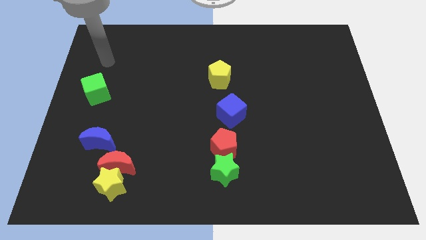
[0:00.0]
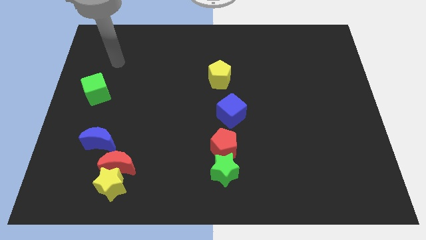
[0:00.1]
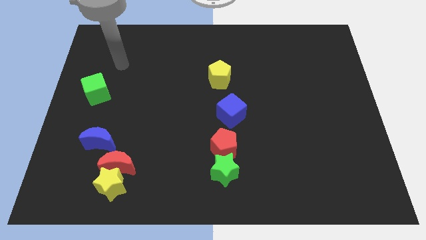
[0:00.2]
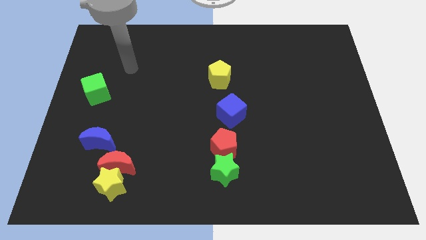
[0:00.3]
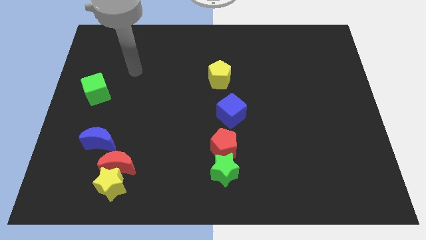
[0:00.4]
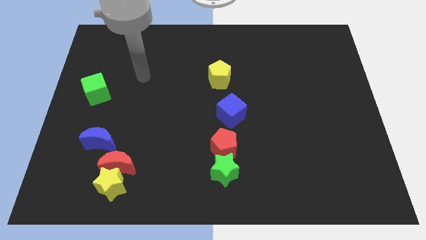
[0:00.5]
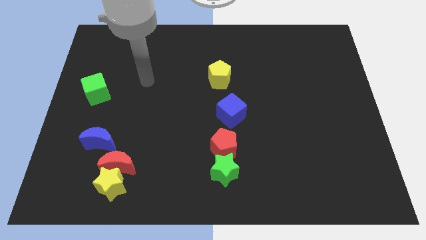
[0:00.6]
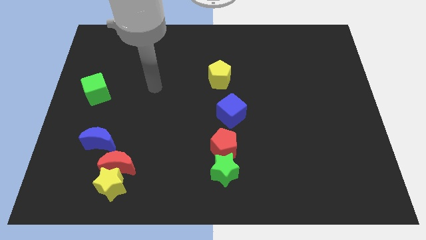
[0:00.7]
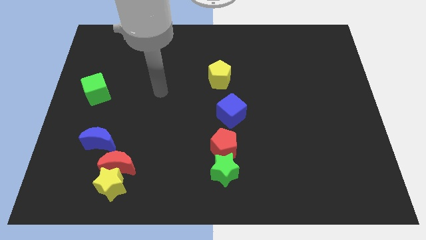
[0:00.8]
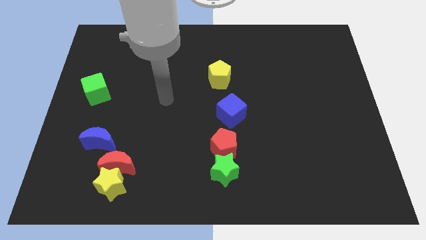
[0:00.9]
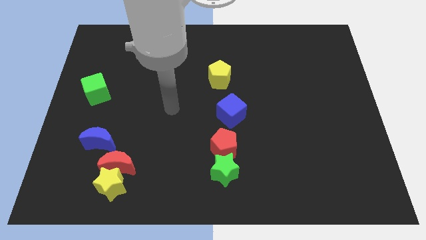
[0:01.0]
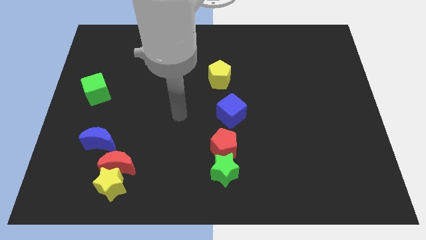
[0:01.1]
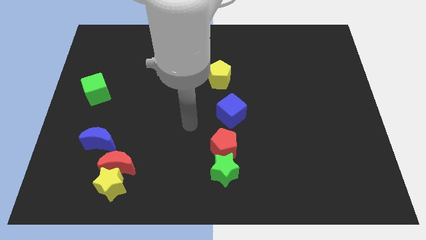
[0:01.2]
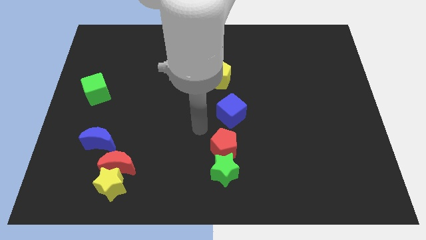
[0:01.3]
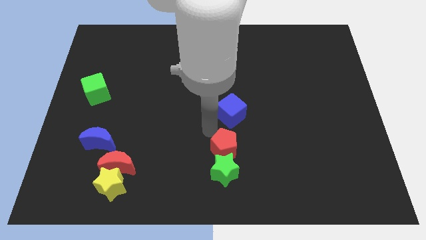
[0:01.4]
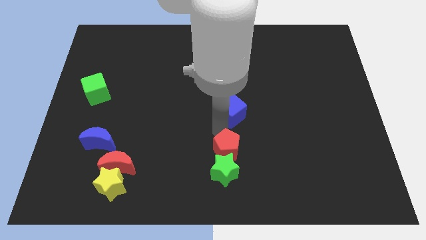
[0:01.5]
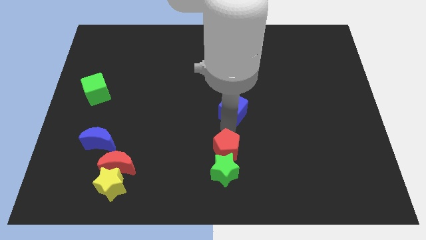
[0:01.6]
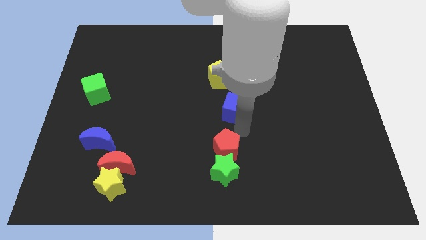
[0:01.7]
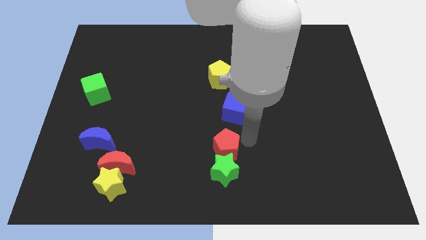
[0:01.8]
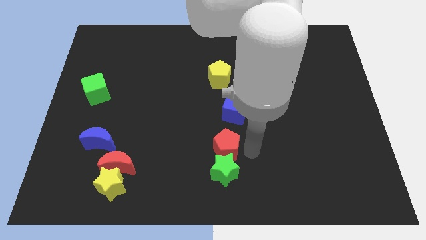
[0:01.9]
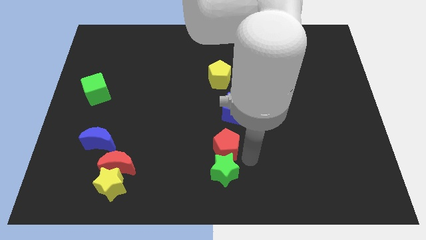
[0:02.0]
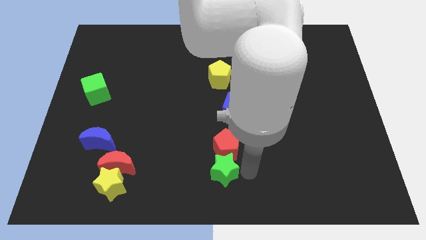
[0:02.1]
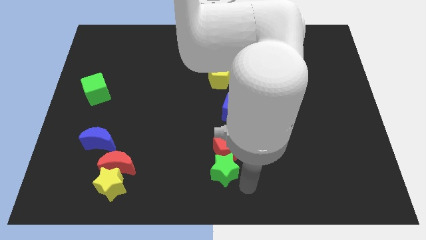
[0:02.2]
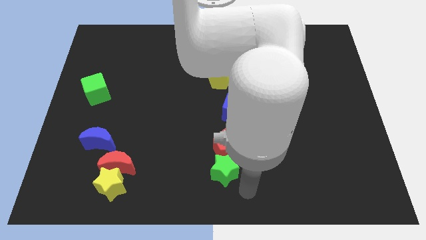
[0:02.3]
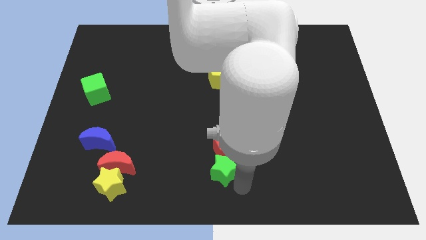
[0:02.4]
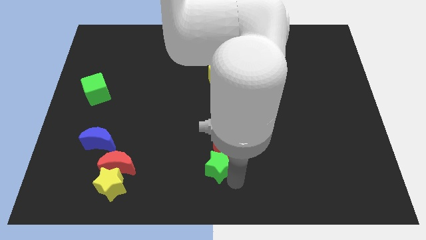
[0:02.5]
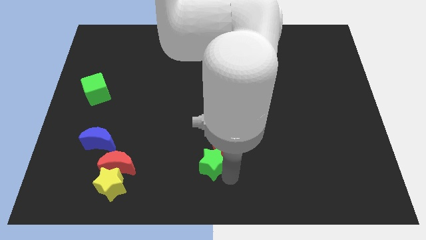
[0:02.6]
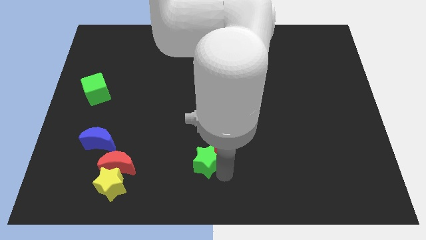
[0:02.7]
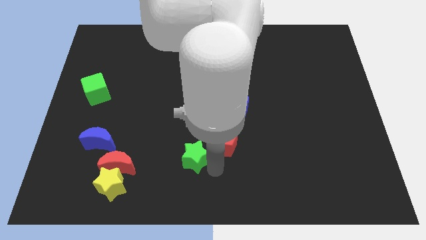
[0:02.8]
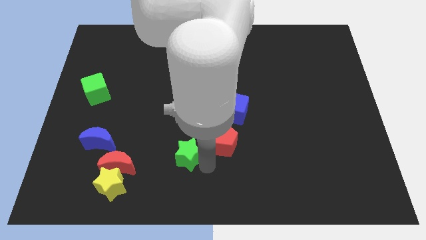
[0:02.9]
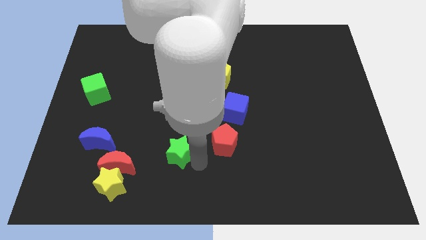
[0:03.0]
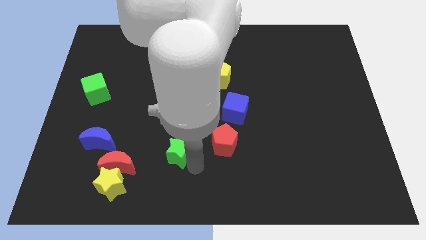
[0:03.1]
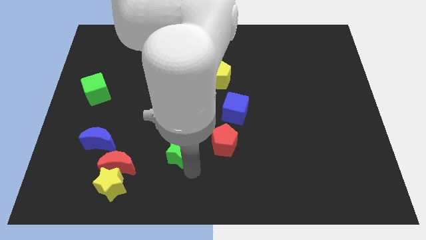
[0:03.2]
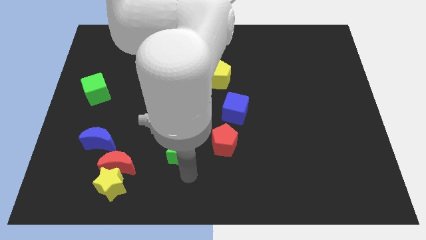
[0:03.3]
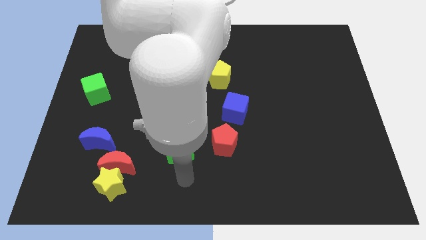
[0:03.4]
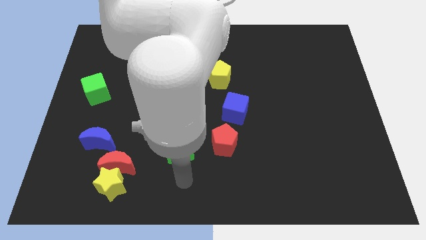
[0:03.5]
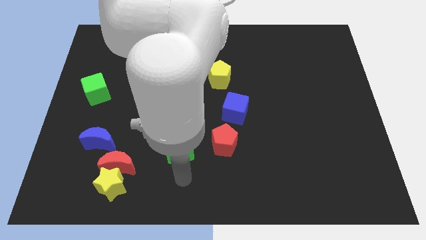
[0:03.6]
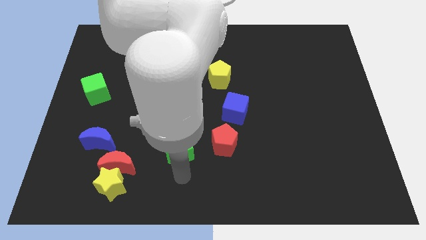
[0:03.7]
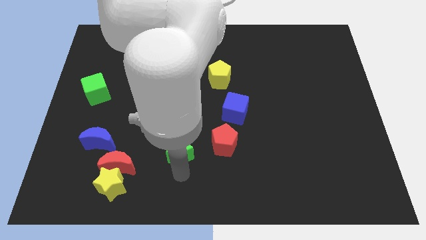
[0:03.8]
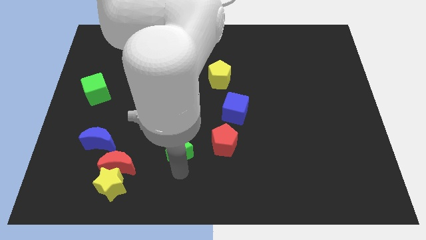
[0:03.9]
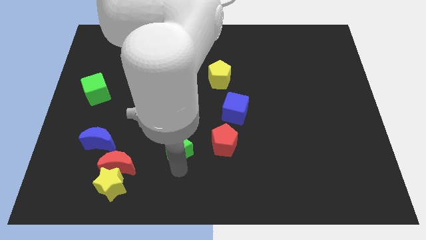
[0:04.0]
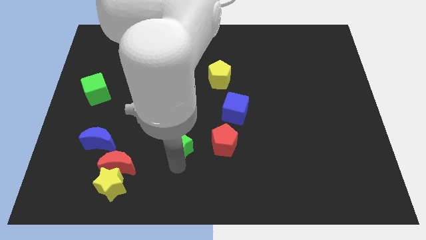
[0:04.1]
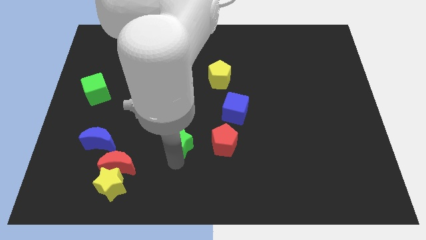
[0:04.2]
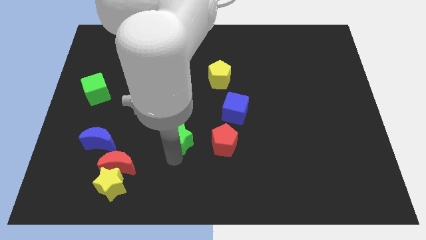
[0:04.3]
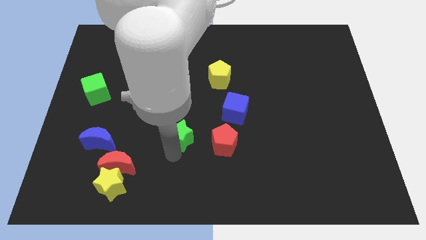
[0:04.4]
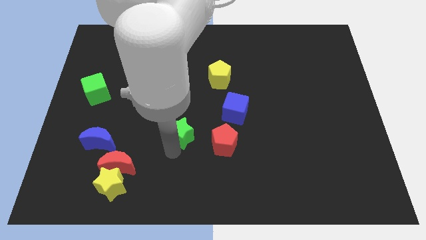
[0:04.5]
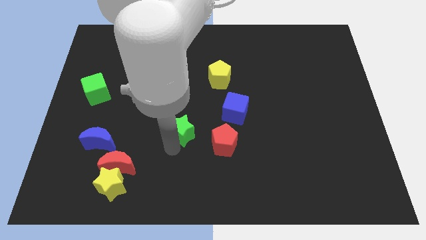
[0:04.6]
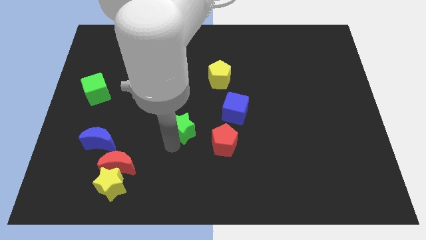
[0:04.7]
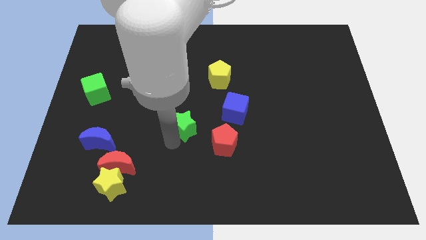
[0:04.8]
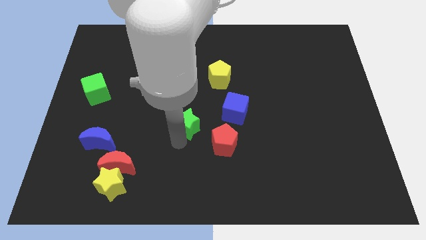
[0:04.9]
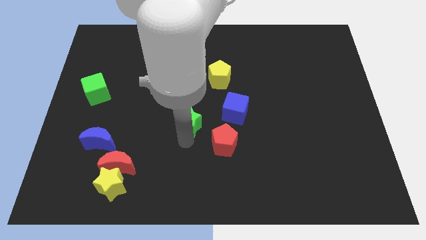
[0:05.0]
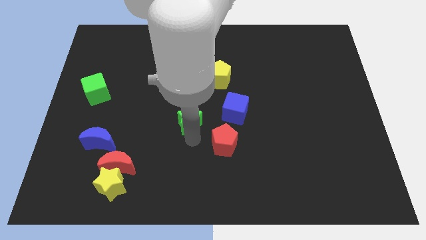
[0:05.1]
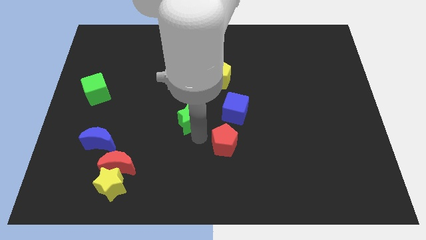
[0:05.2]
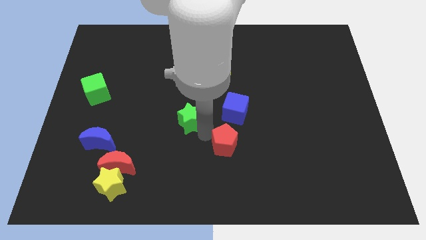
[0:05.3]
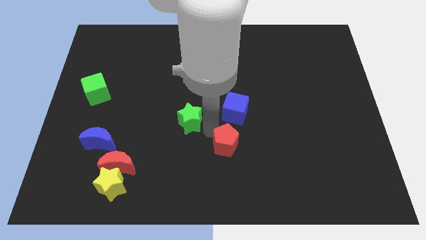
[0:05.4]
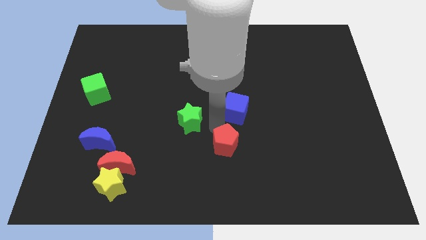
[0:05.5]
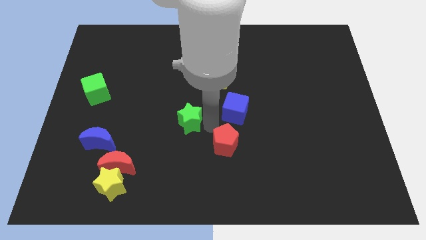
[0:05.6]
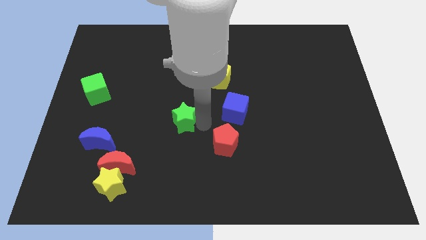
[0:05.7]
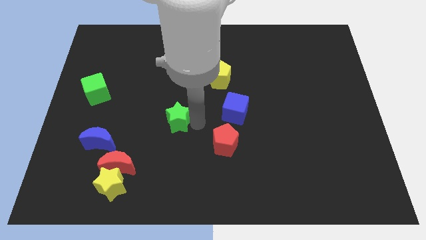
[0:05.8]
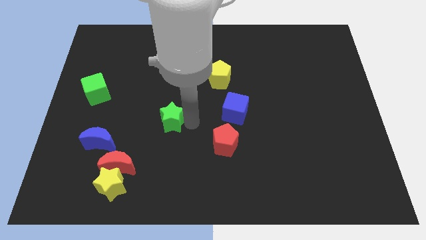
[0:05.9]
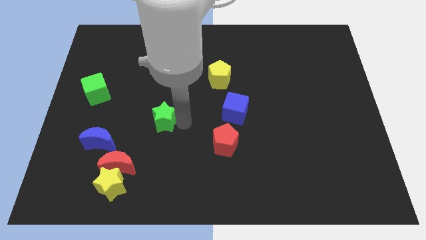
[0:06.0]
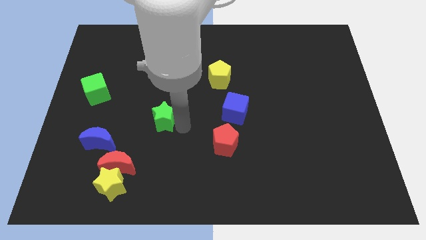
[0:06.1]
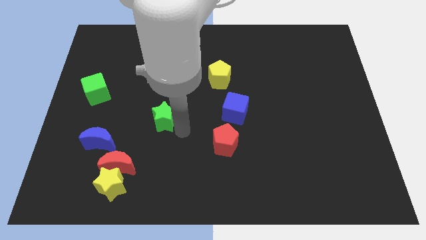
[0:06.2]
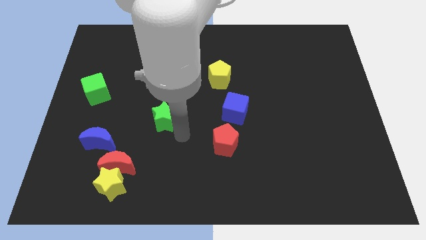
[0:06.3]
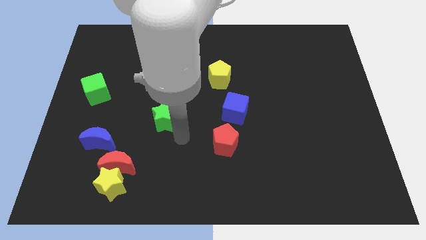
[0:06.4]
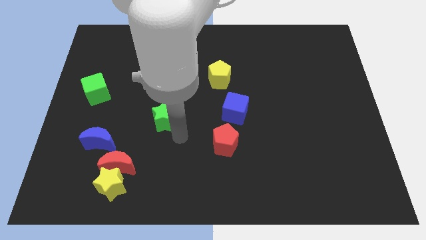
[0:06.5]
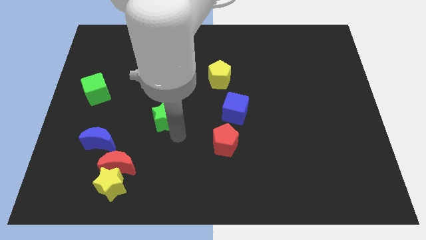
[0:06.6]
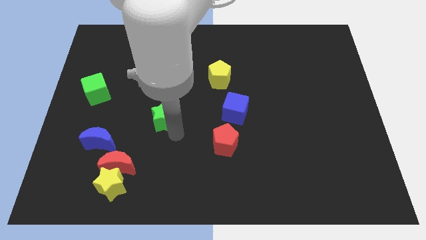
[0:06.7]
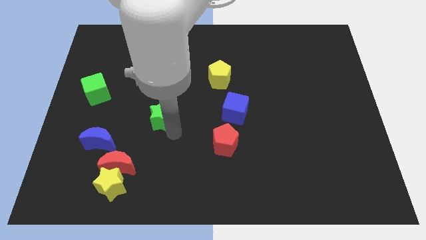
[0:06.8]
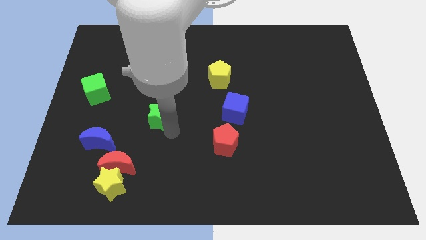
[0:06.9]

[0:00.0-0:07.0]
slide the green star up and then left

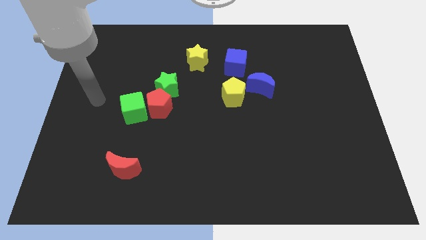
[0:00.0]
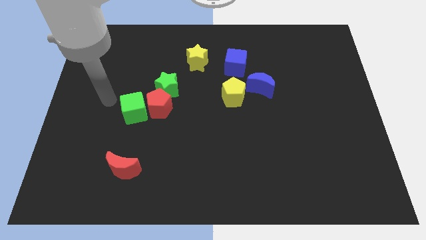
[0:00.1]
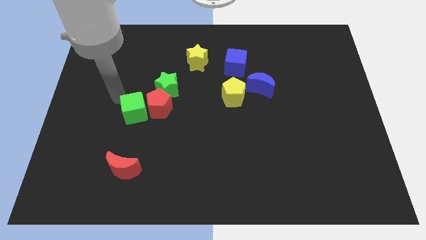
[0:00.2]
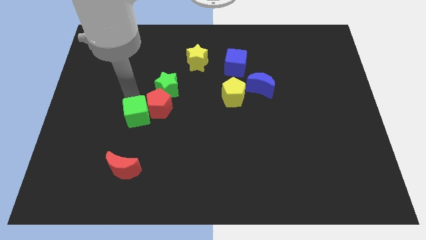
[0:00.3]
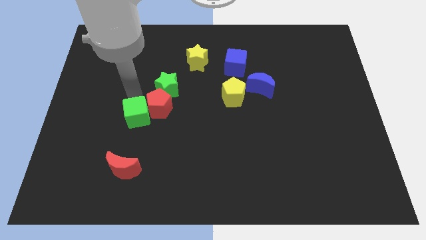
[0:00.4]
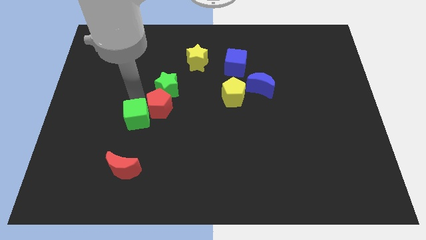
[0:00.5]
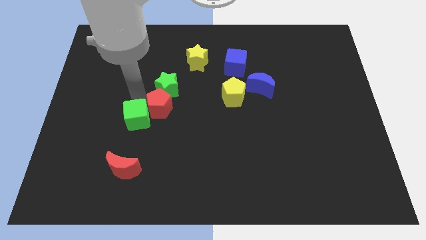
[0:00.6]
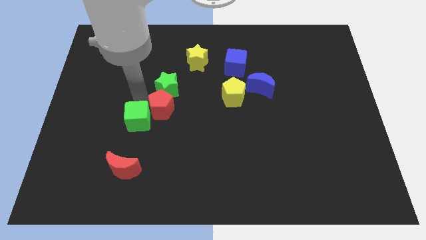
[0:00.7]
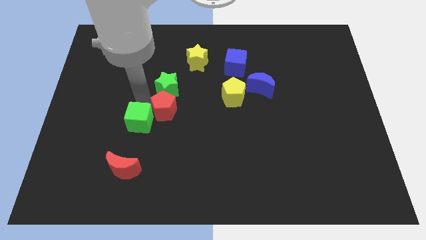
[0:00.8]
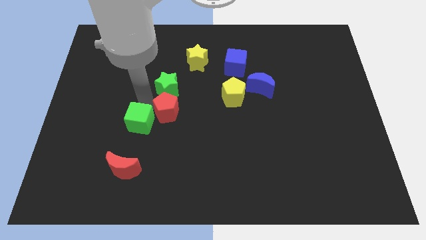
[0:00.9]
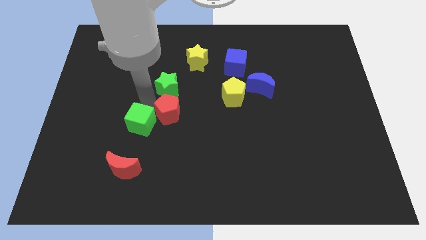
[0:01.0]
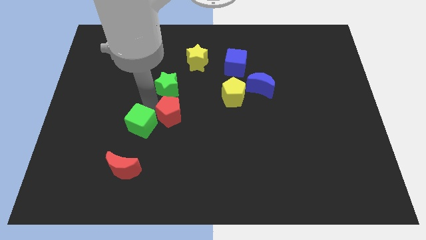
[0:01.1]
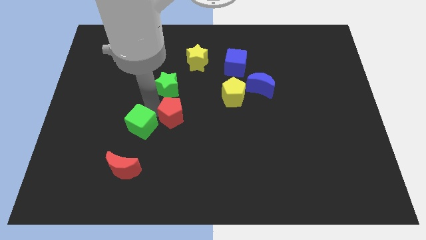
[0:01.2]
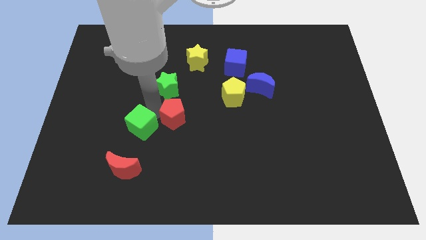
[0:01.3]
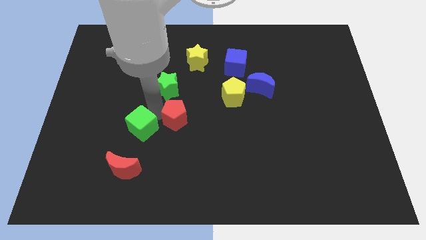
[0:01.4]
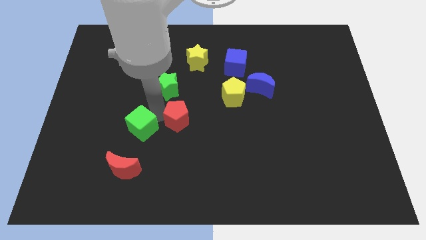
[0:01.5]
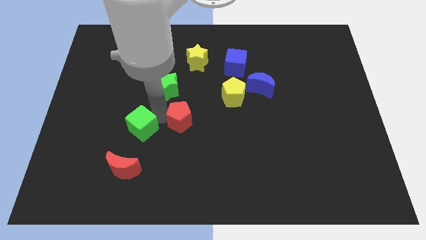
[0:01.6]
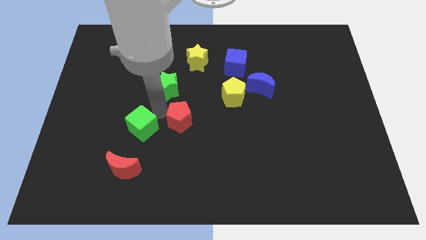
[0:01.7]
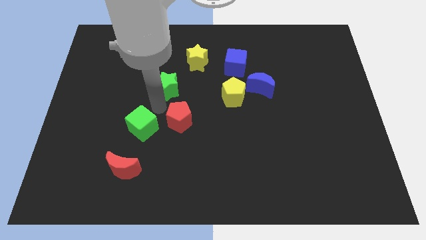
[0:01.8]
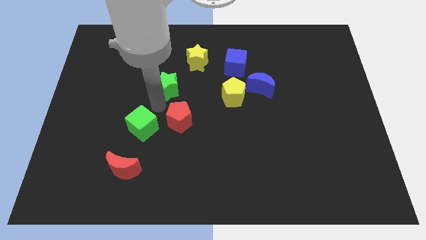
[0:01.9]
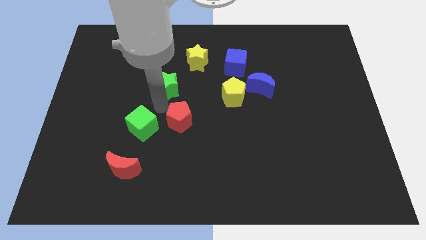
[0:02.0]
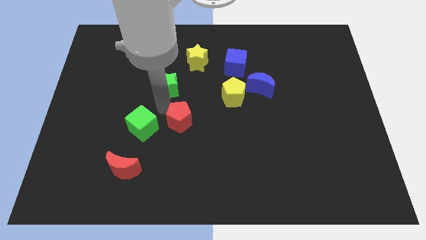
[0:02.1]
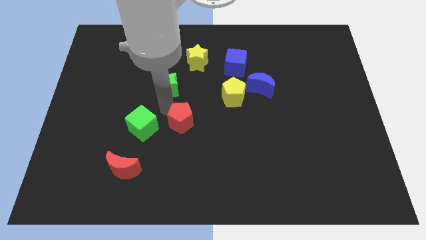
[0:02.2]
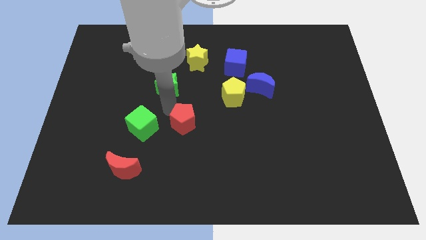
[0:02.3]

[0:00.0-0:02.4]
slide the red pentagon diagonally downwards and to the right a little bit
